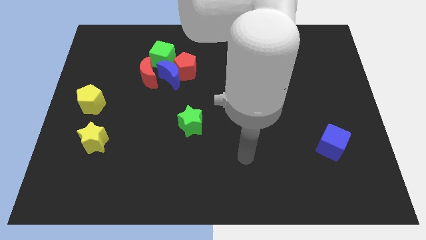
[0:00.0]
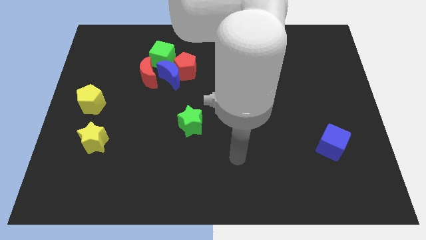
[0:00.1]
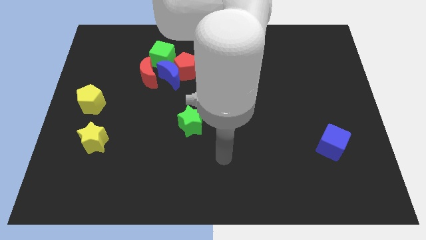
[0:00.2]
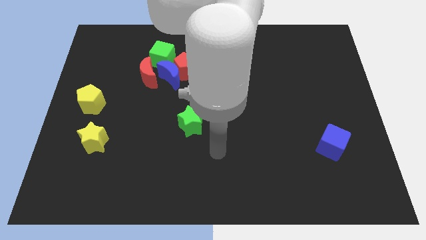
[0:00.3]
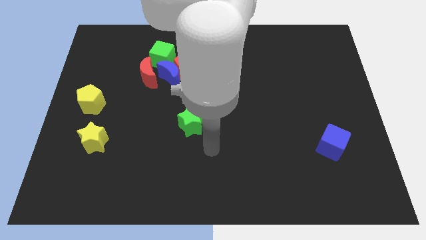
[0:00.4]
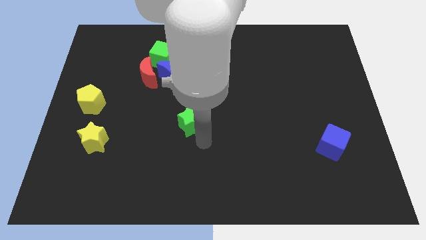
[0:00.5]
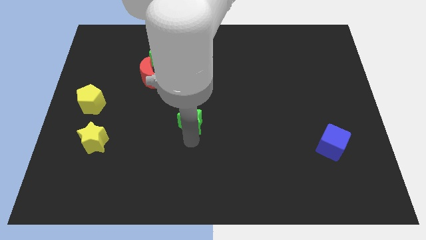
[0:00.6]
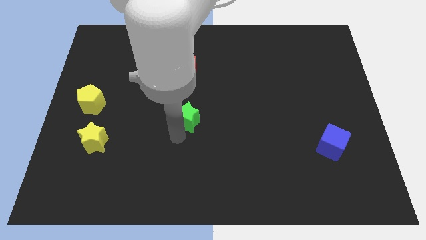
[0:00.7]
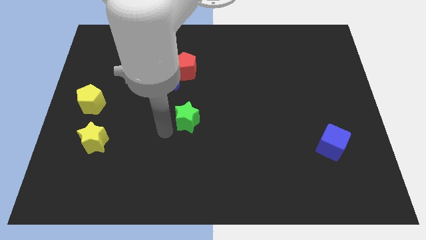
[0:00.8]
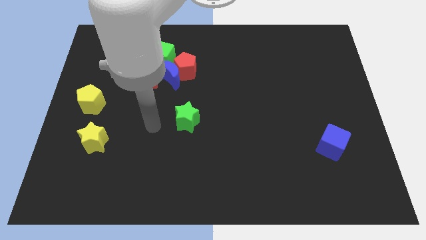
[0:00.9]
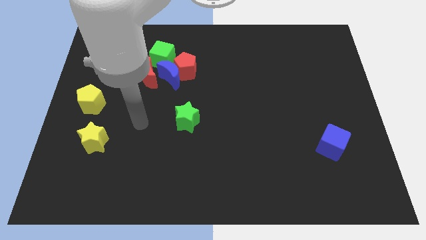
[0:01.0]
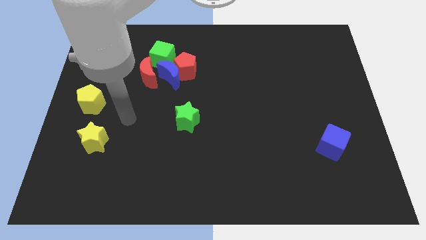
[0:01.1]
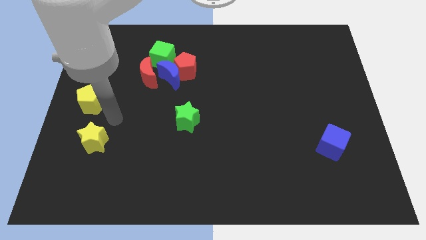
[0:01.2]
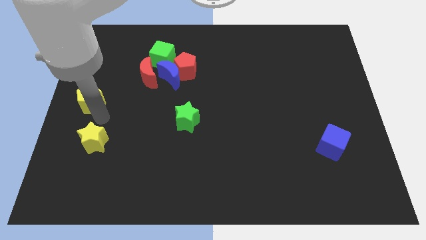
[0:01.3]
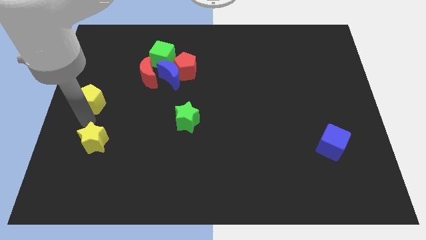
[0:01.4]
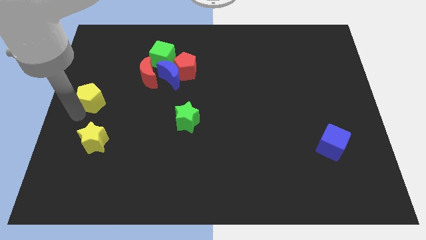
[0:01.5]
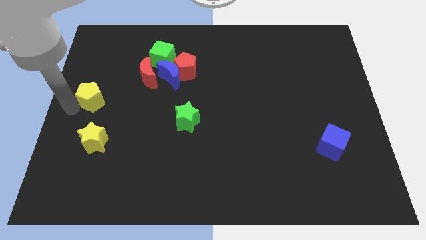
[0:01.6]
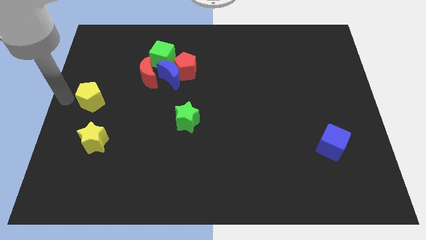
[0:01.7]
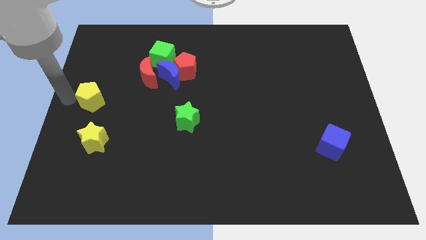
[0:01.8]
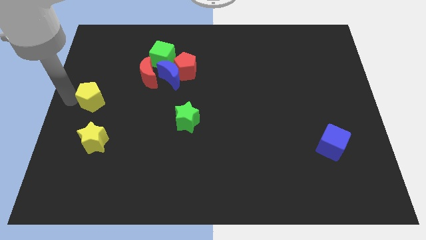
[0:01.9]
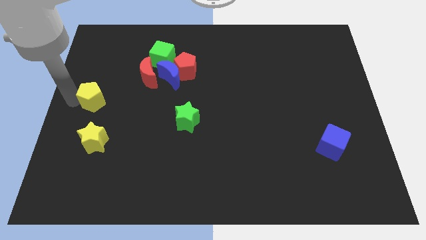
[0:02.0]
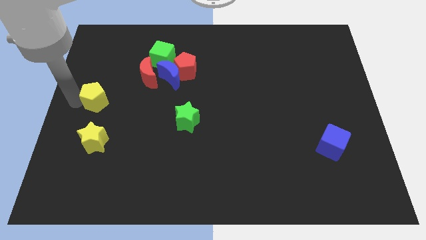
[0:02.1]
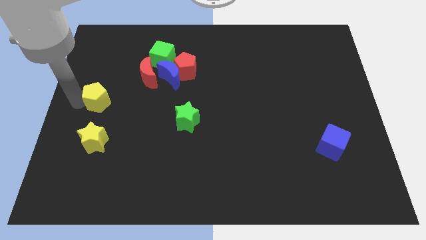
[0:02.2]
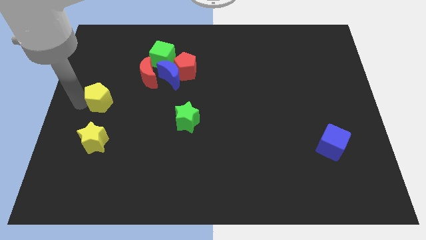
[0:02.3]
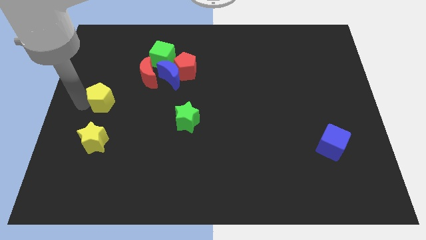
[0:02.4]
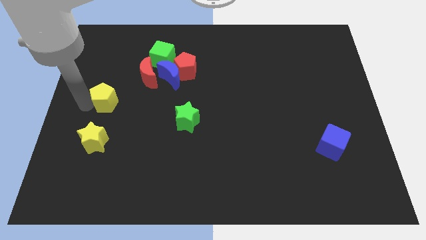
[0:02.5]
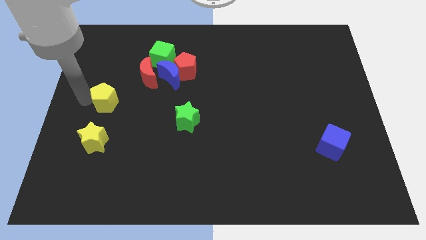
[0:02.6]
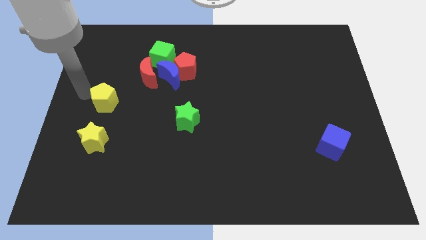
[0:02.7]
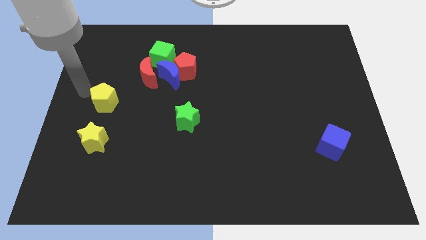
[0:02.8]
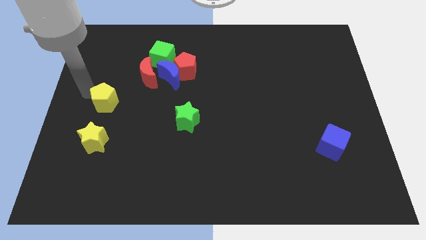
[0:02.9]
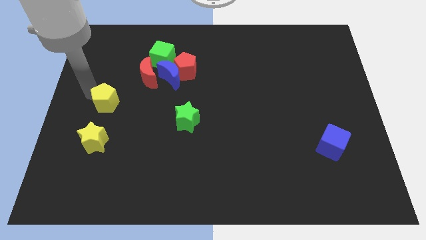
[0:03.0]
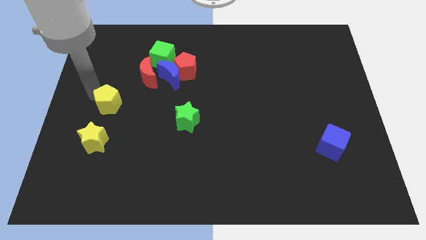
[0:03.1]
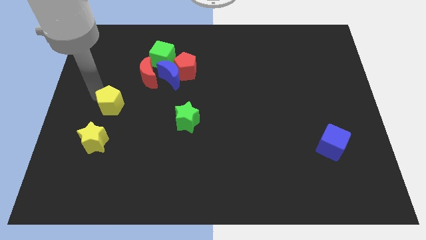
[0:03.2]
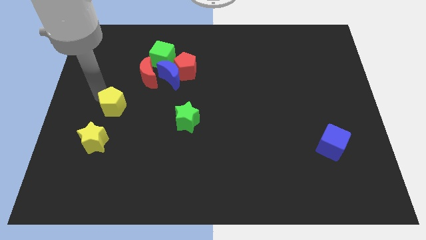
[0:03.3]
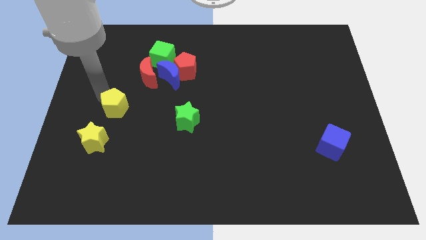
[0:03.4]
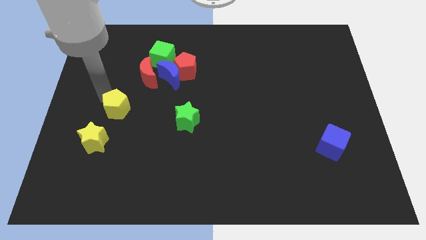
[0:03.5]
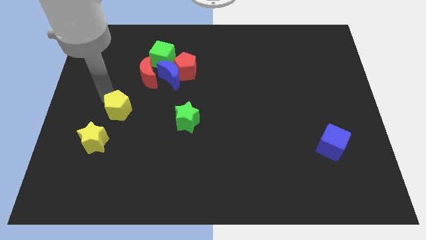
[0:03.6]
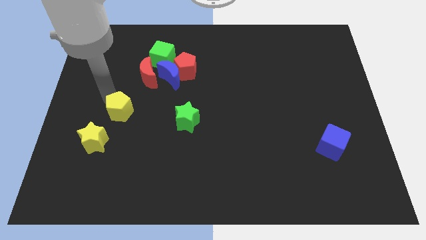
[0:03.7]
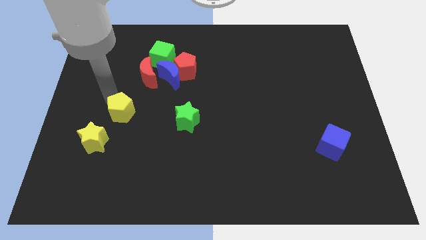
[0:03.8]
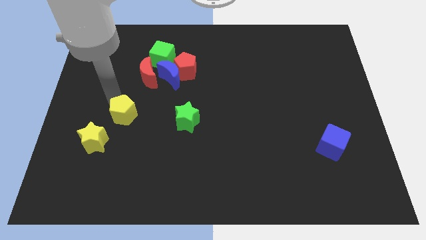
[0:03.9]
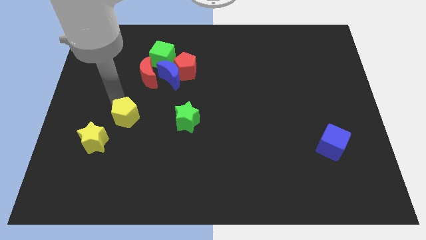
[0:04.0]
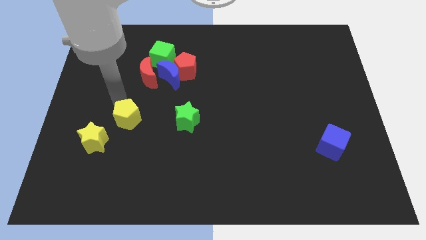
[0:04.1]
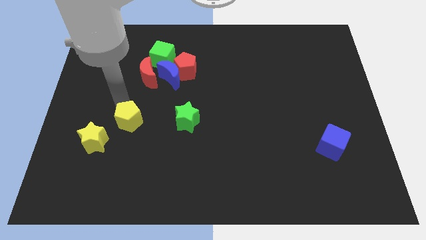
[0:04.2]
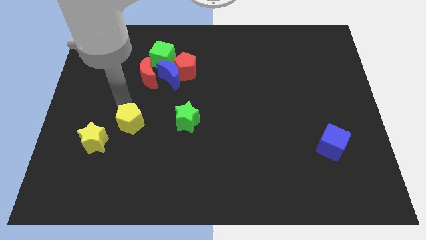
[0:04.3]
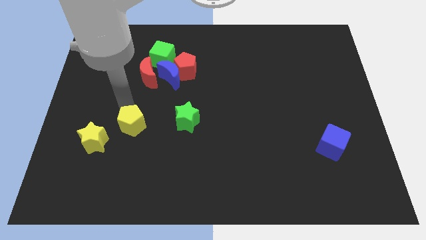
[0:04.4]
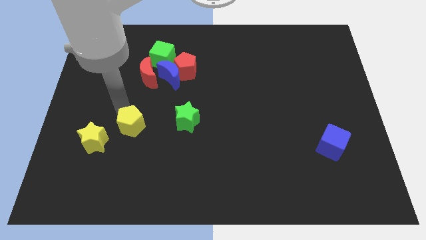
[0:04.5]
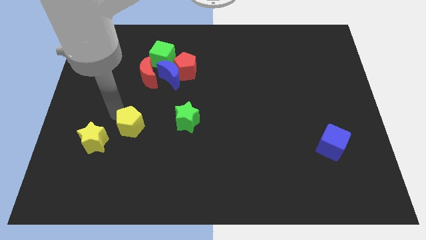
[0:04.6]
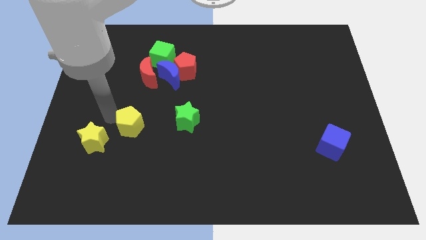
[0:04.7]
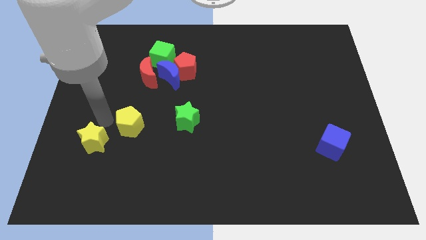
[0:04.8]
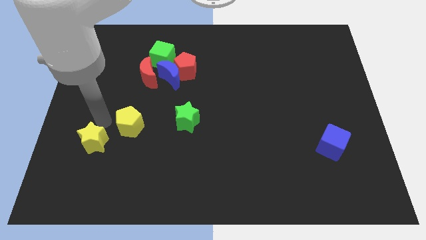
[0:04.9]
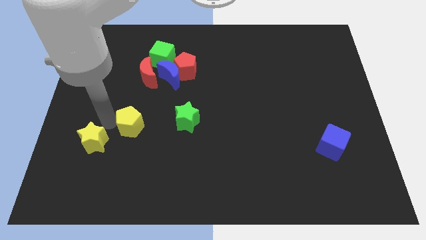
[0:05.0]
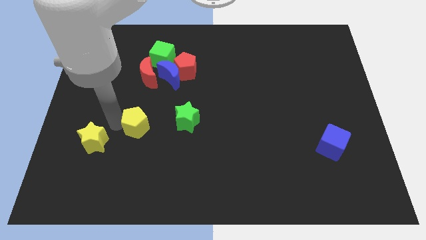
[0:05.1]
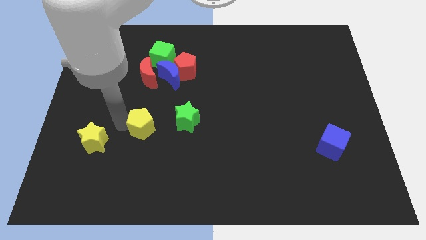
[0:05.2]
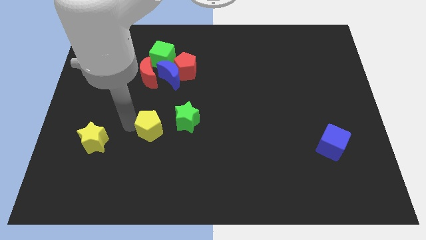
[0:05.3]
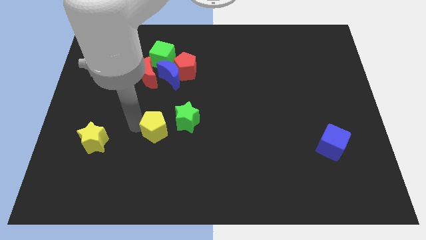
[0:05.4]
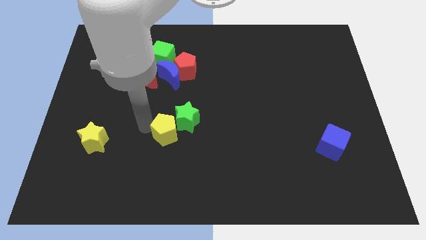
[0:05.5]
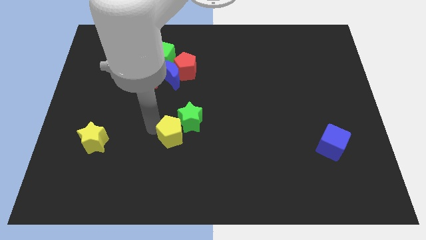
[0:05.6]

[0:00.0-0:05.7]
put the yellow pentagon to the bottom of the green star

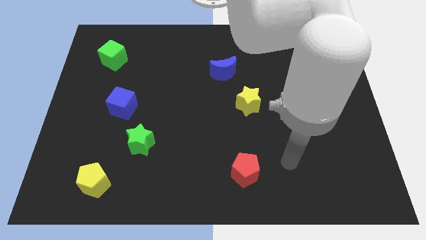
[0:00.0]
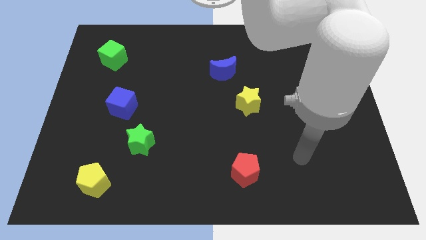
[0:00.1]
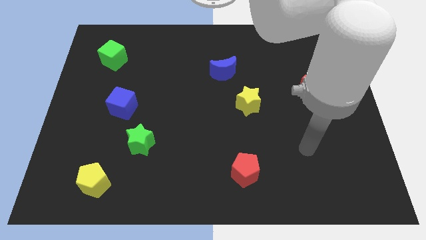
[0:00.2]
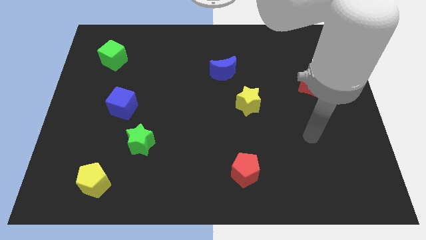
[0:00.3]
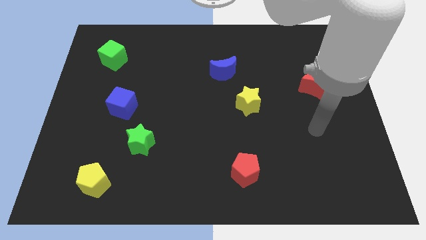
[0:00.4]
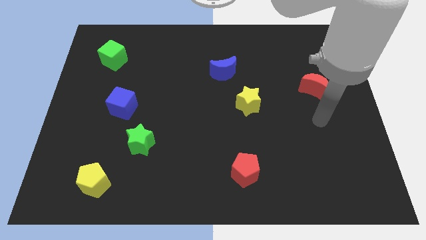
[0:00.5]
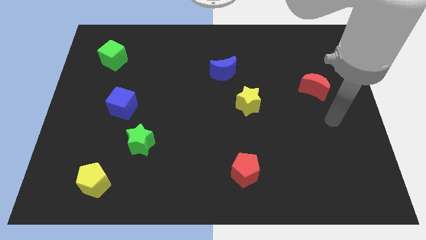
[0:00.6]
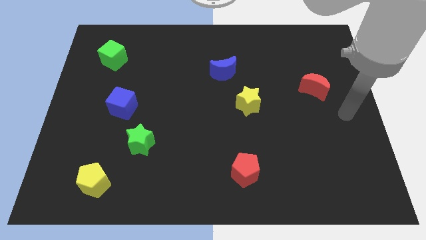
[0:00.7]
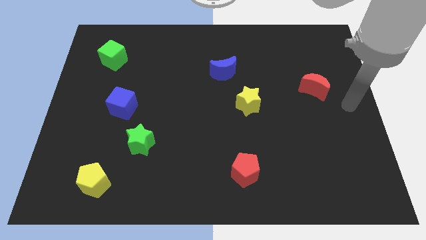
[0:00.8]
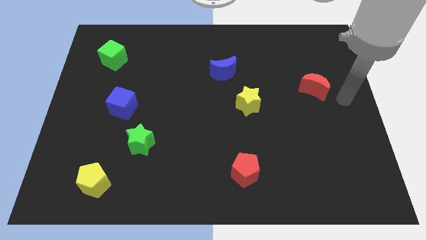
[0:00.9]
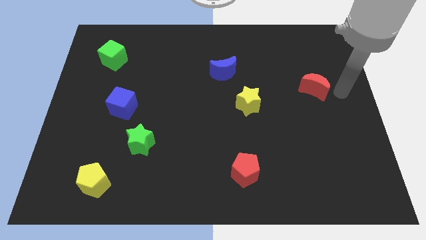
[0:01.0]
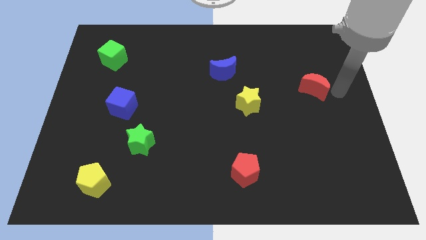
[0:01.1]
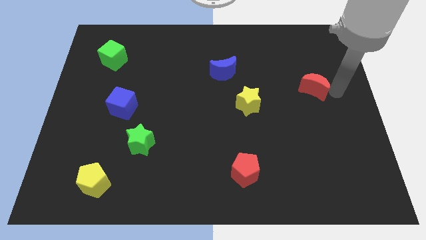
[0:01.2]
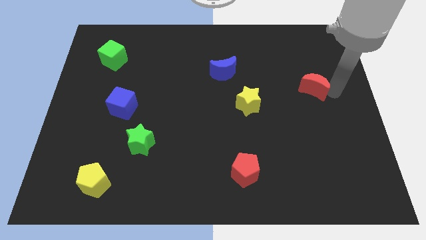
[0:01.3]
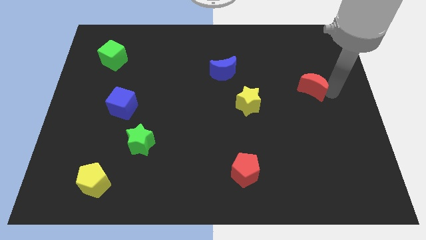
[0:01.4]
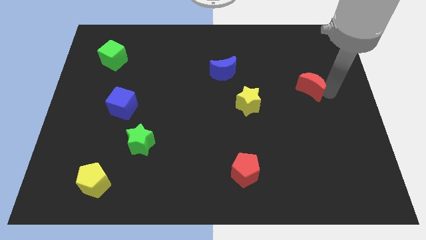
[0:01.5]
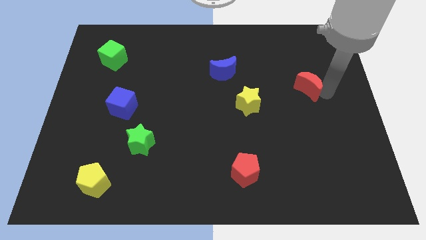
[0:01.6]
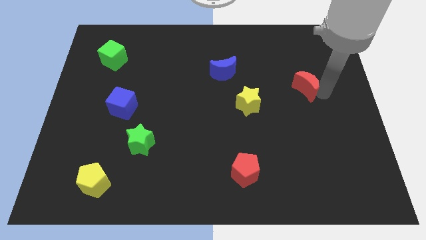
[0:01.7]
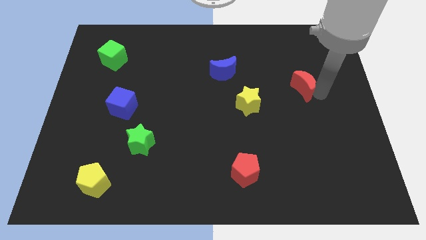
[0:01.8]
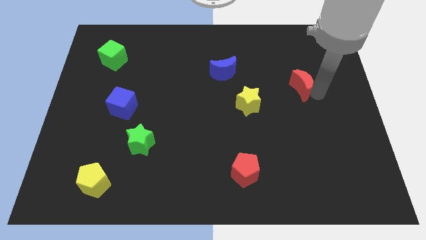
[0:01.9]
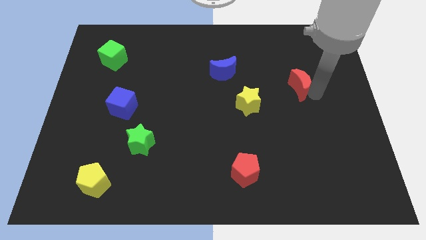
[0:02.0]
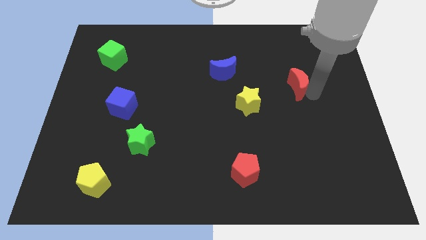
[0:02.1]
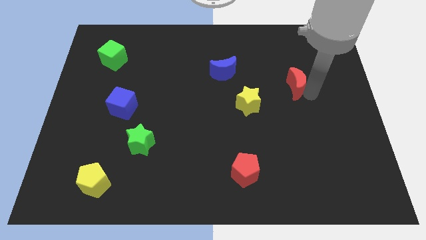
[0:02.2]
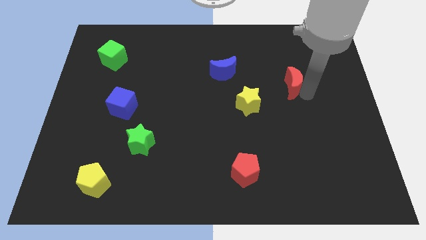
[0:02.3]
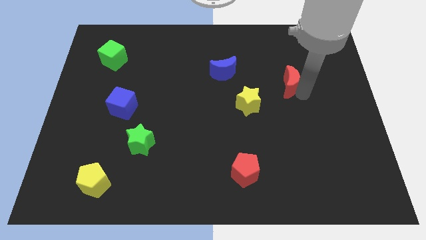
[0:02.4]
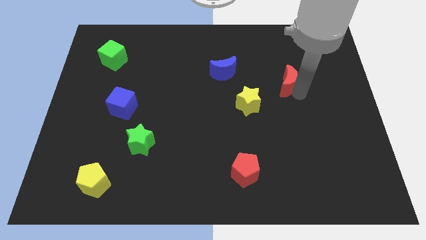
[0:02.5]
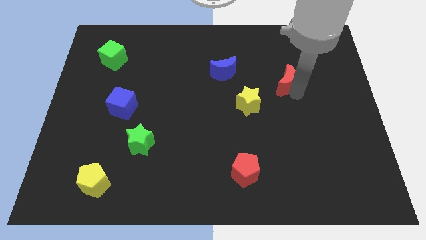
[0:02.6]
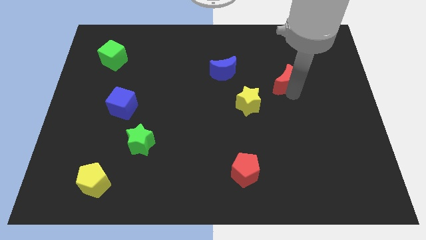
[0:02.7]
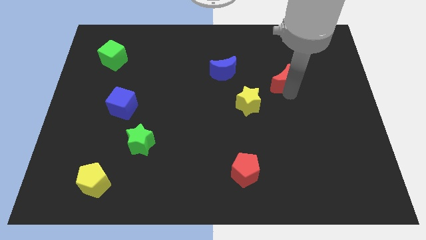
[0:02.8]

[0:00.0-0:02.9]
slide the red moon just right of the blue moon
